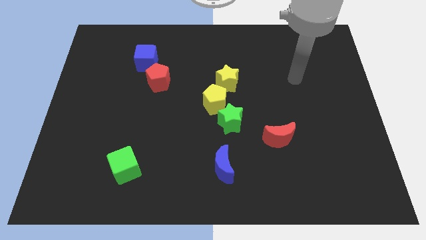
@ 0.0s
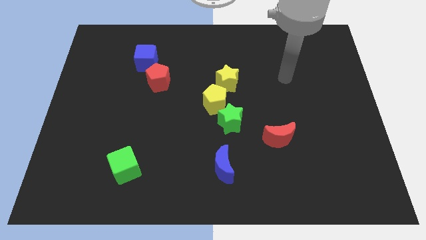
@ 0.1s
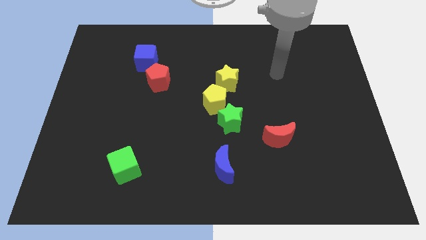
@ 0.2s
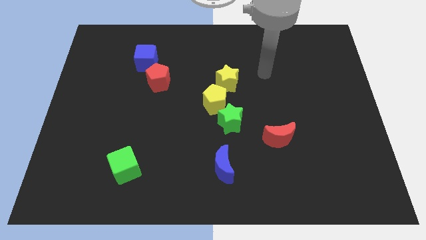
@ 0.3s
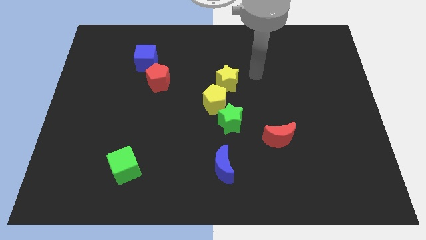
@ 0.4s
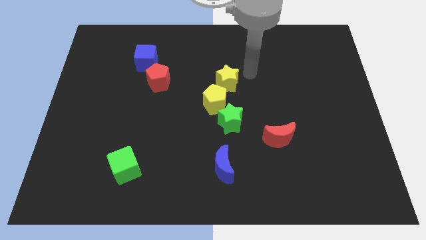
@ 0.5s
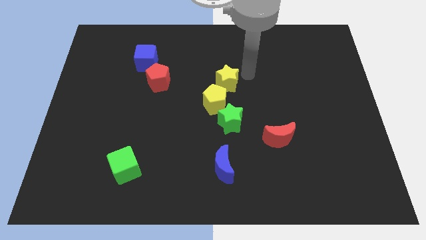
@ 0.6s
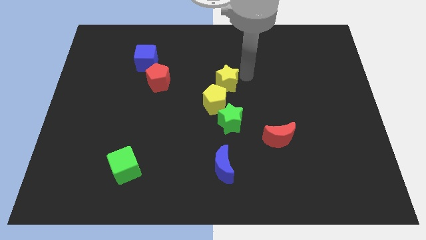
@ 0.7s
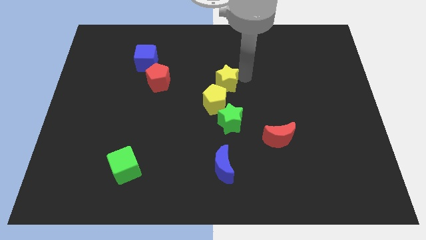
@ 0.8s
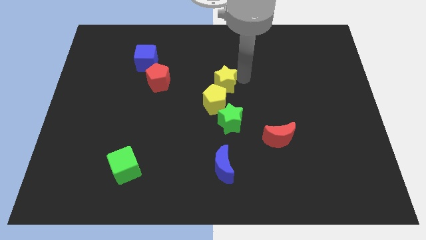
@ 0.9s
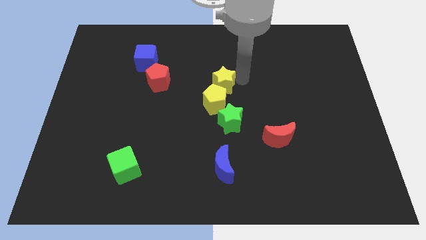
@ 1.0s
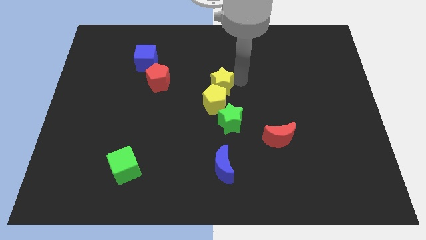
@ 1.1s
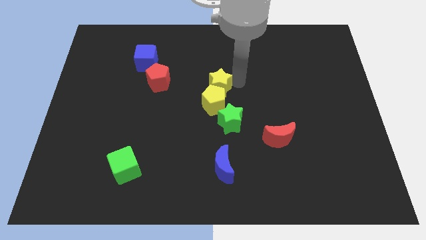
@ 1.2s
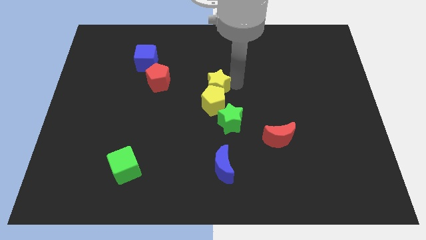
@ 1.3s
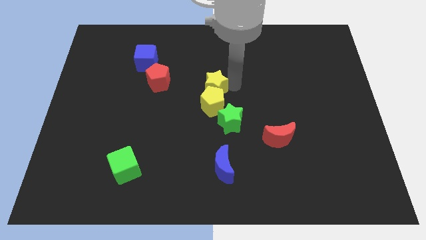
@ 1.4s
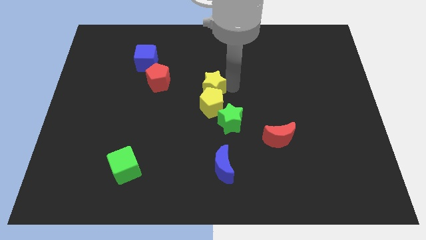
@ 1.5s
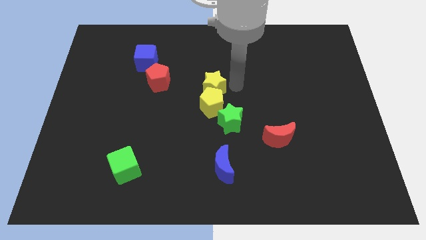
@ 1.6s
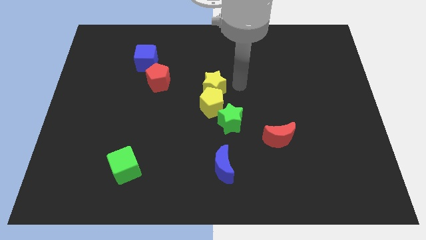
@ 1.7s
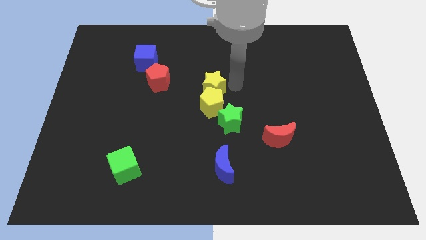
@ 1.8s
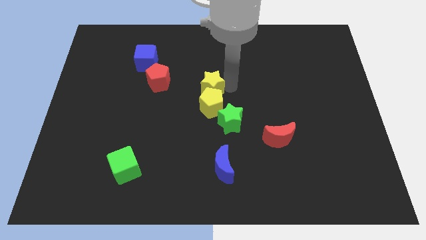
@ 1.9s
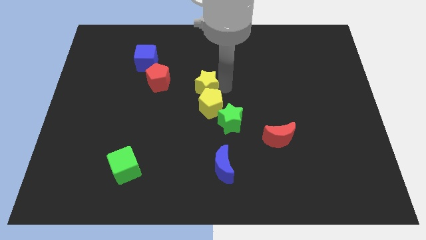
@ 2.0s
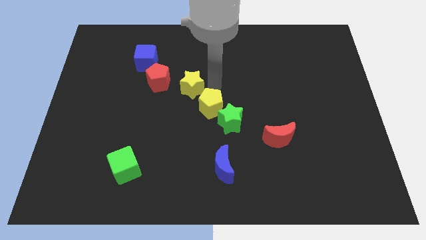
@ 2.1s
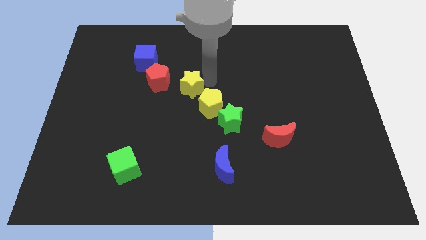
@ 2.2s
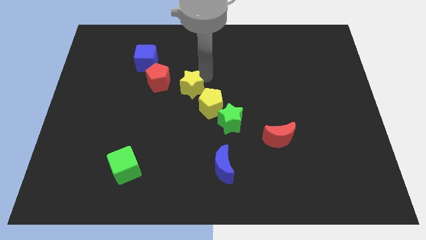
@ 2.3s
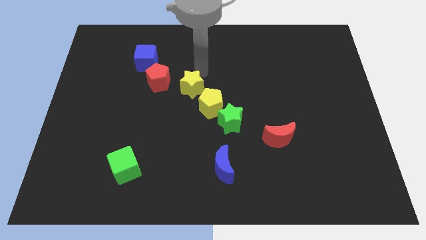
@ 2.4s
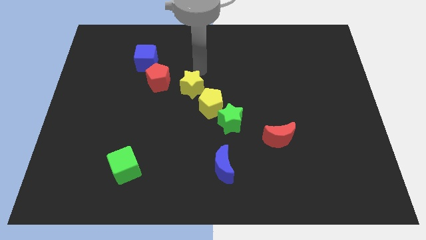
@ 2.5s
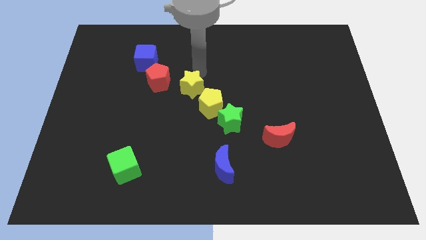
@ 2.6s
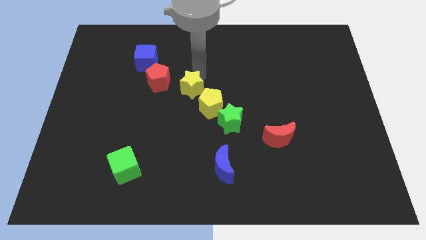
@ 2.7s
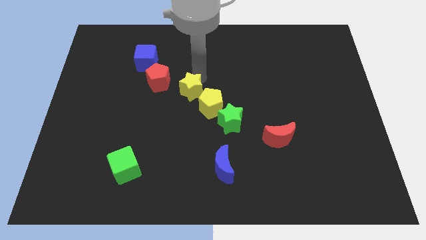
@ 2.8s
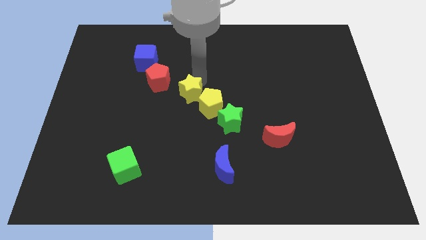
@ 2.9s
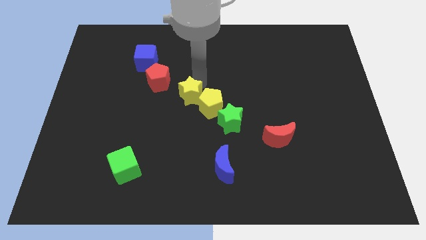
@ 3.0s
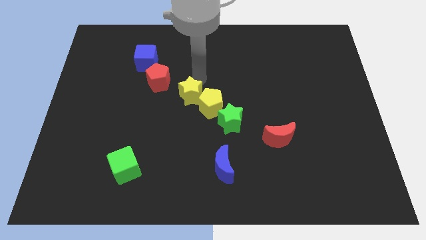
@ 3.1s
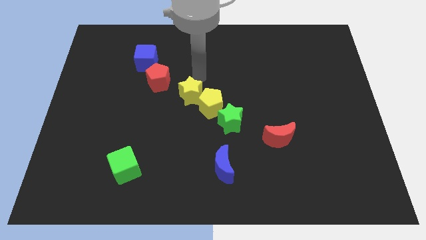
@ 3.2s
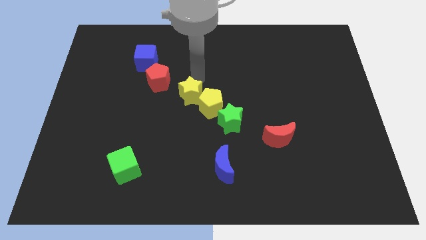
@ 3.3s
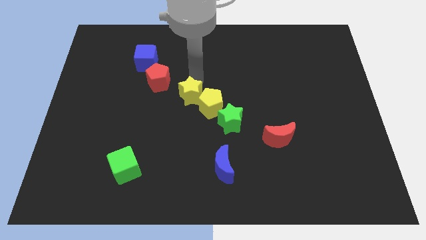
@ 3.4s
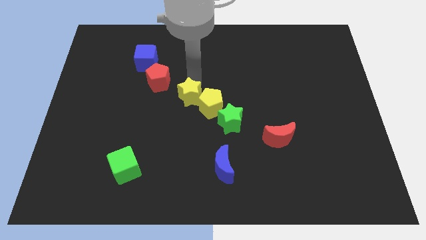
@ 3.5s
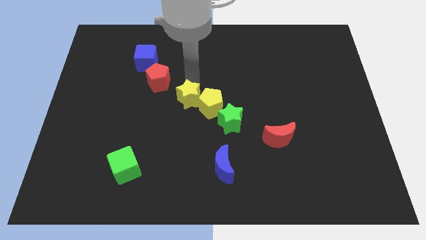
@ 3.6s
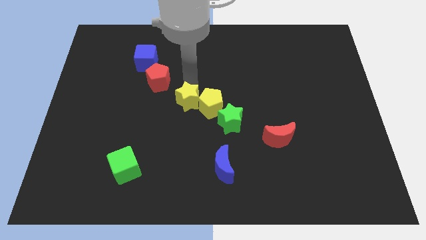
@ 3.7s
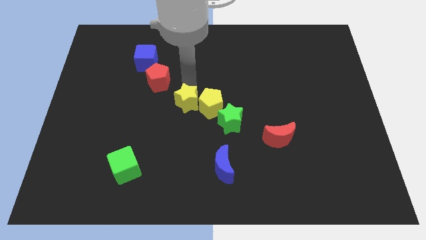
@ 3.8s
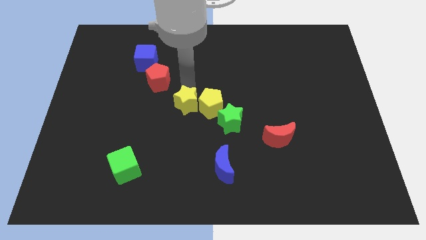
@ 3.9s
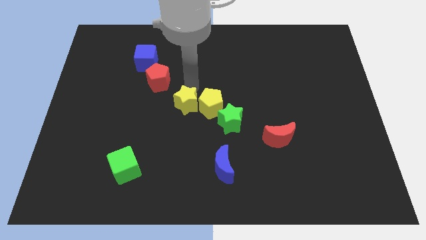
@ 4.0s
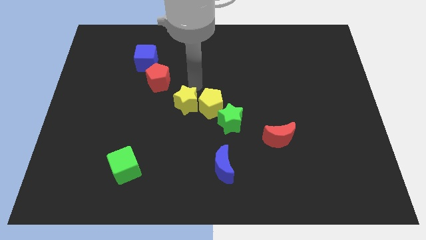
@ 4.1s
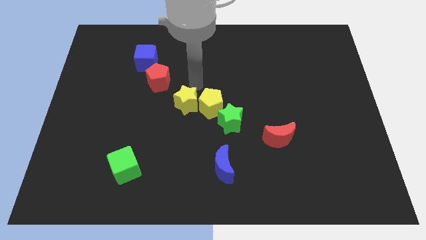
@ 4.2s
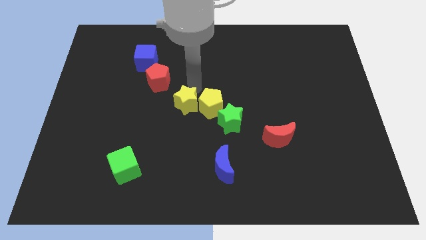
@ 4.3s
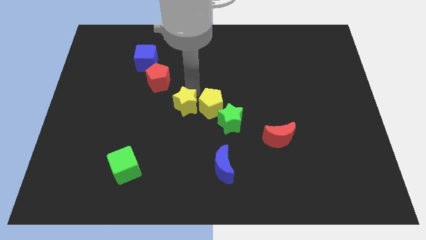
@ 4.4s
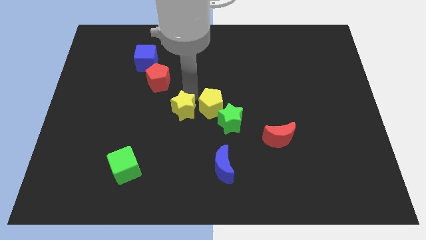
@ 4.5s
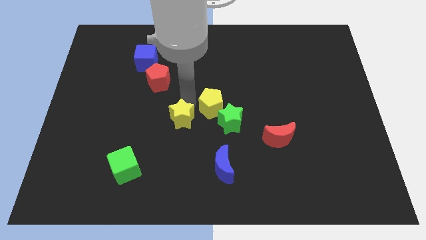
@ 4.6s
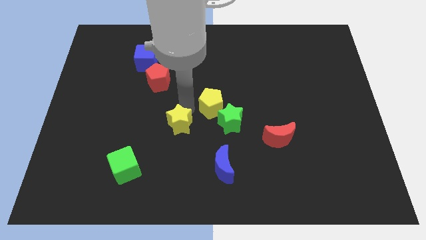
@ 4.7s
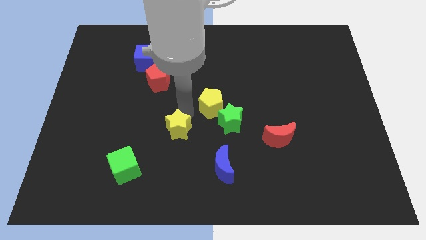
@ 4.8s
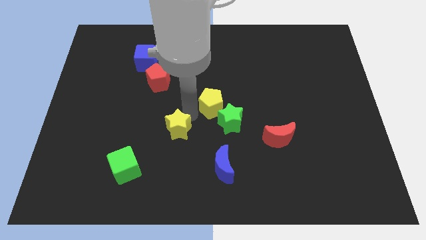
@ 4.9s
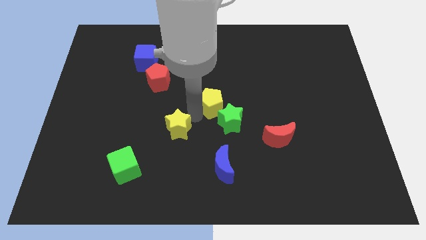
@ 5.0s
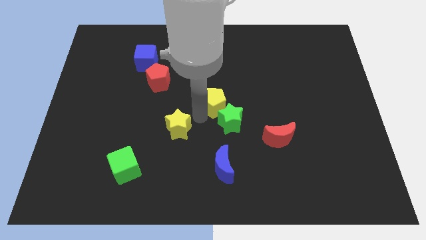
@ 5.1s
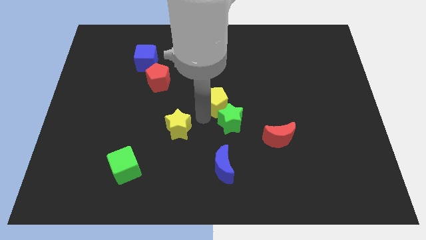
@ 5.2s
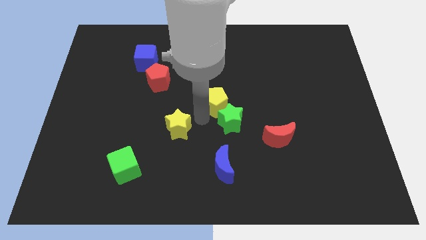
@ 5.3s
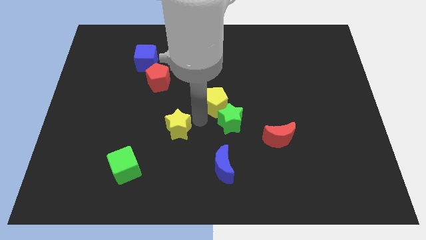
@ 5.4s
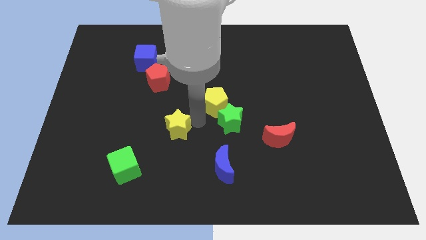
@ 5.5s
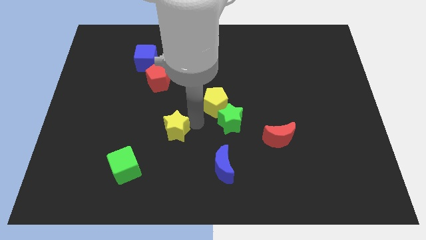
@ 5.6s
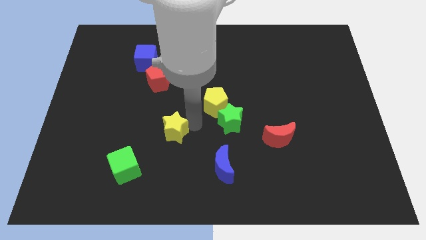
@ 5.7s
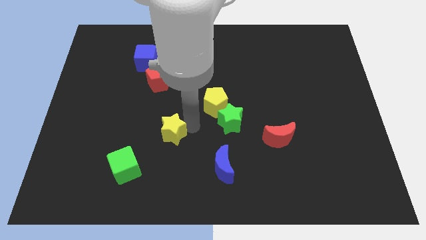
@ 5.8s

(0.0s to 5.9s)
move the yellow star to the top right side of the green cube

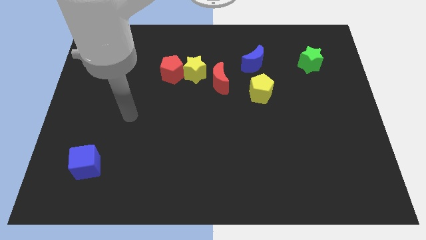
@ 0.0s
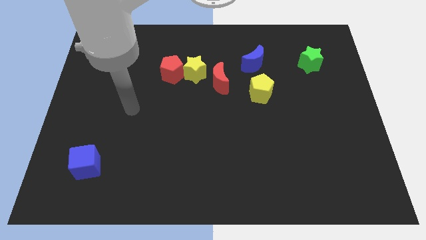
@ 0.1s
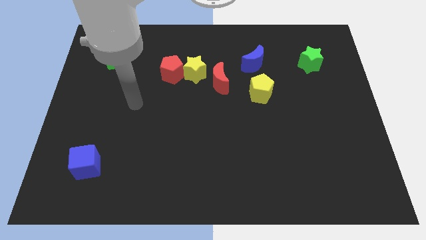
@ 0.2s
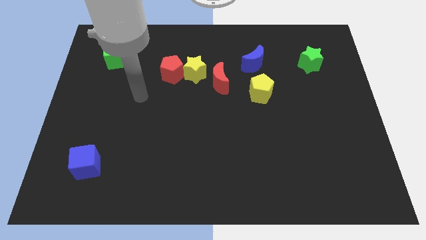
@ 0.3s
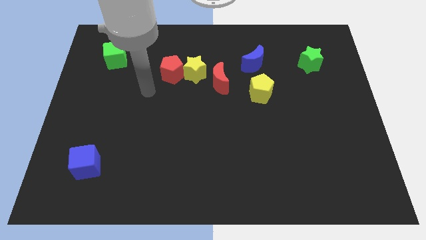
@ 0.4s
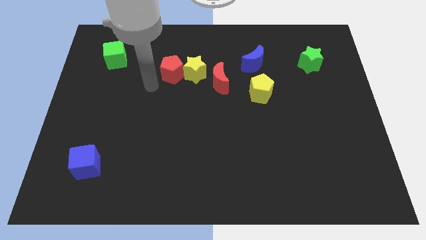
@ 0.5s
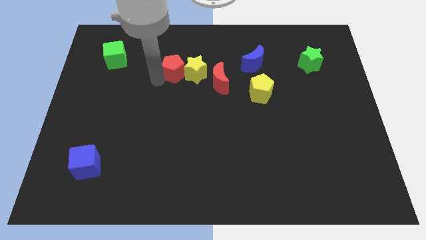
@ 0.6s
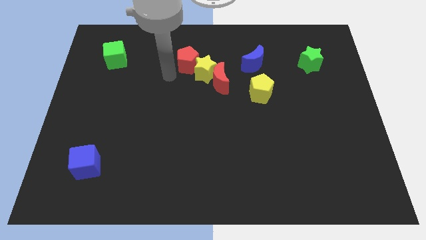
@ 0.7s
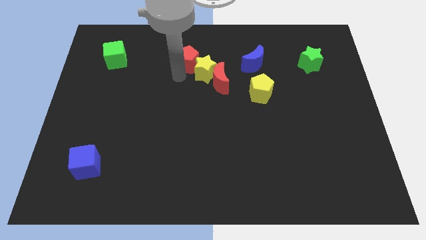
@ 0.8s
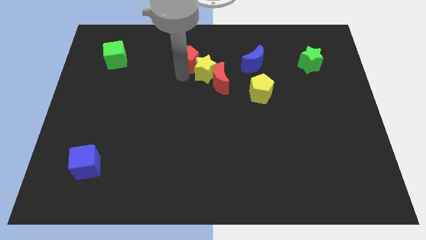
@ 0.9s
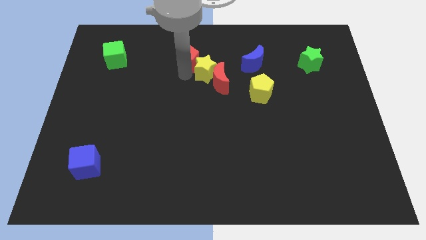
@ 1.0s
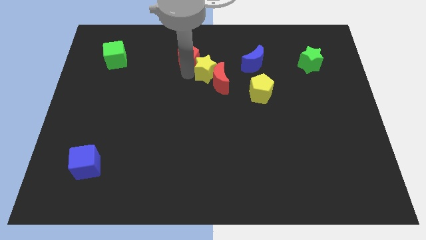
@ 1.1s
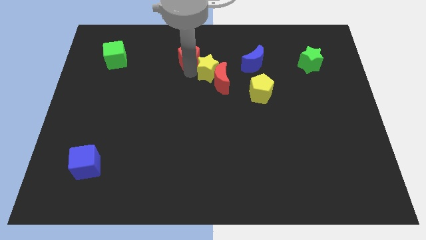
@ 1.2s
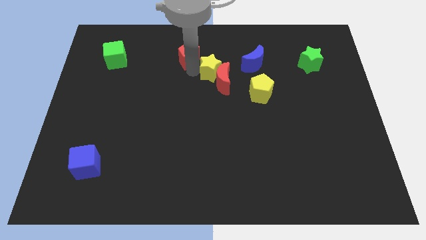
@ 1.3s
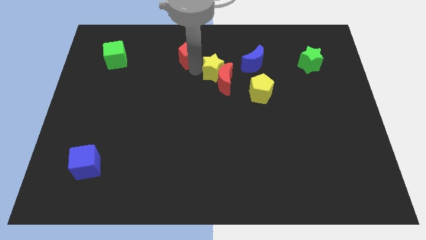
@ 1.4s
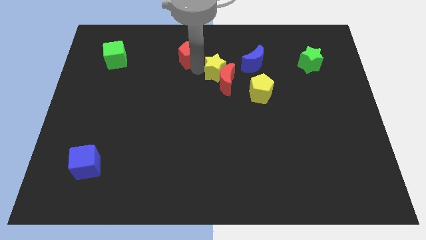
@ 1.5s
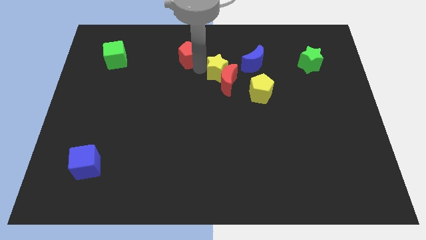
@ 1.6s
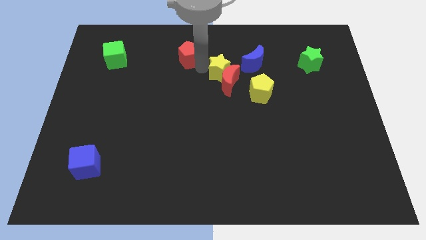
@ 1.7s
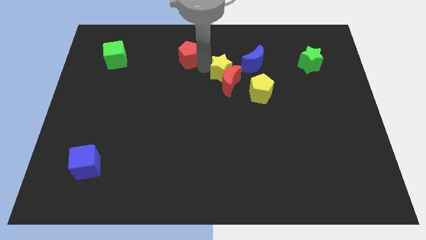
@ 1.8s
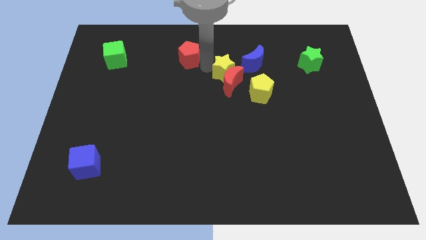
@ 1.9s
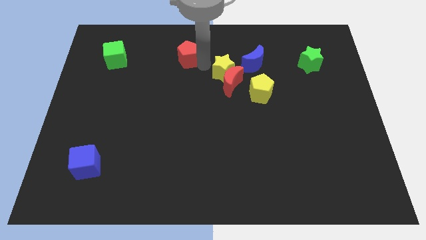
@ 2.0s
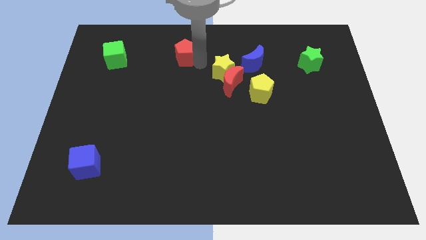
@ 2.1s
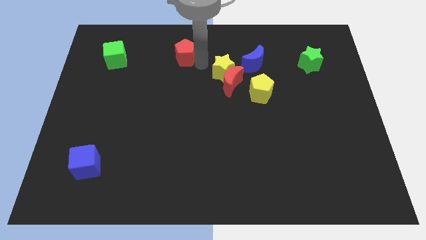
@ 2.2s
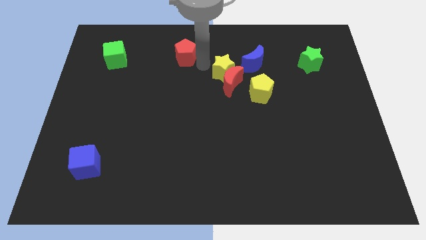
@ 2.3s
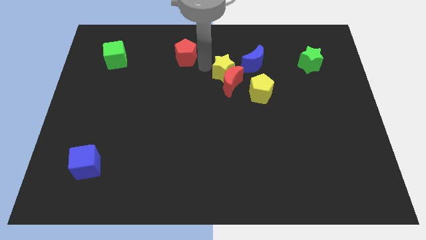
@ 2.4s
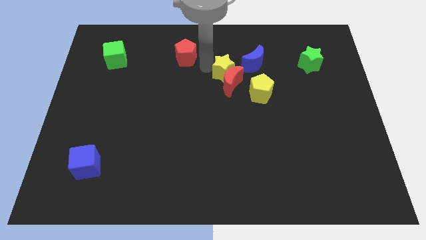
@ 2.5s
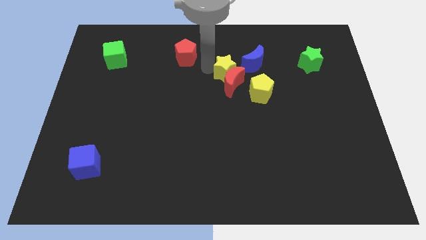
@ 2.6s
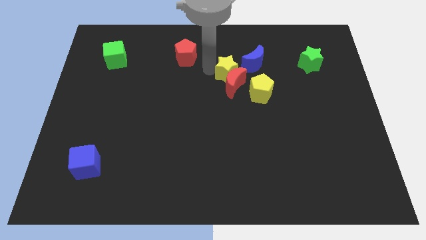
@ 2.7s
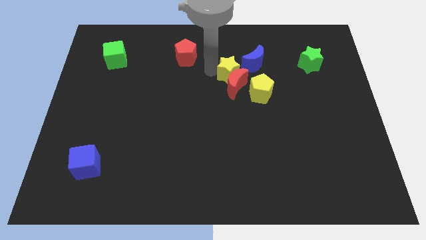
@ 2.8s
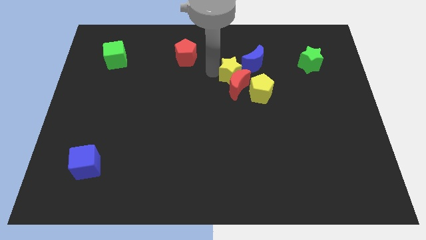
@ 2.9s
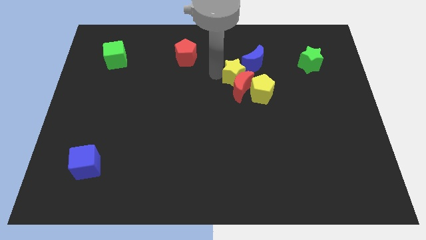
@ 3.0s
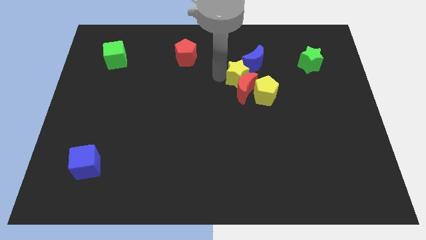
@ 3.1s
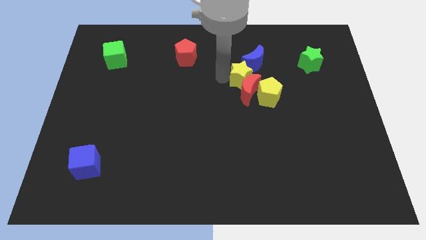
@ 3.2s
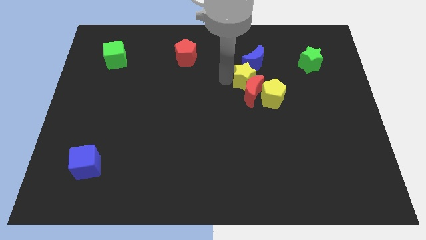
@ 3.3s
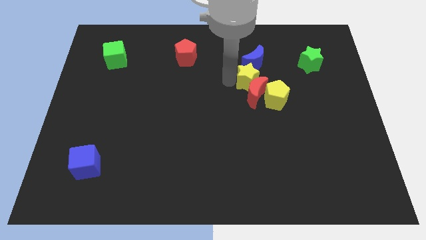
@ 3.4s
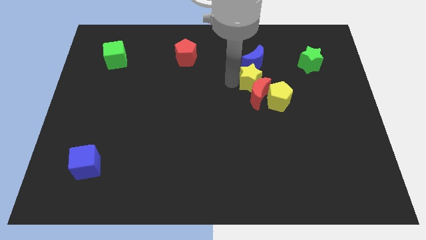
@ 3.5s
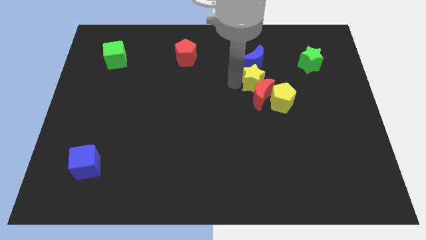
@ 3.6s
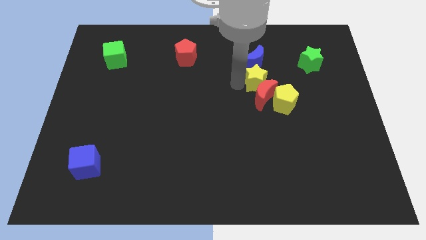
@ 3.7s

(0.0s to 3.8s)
move the yellow star to the bottom right of the blue moon
